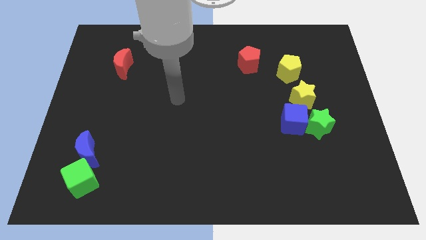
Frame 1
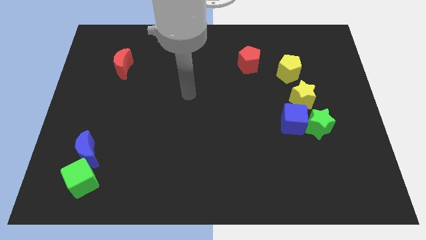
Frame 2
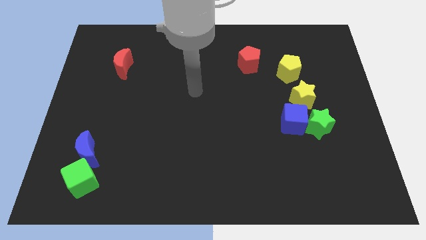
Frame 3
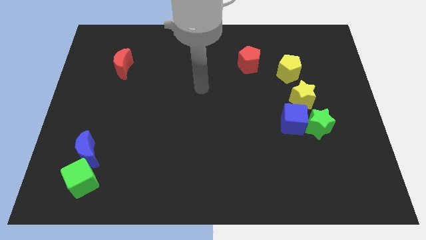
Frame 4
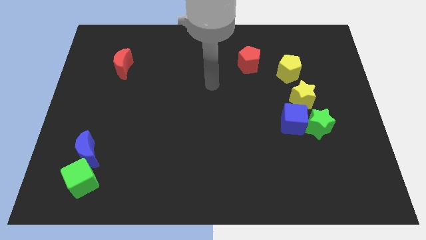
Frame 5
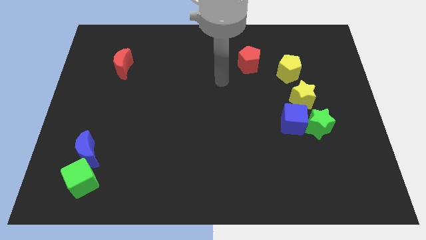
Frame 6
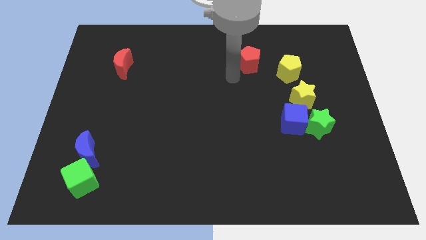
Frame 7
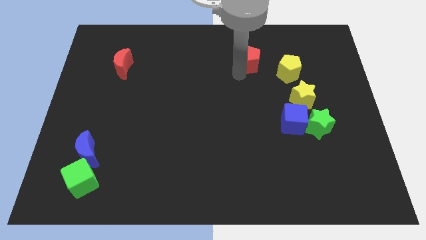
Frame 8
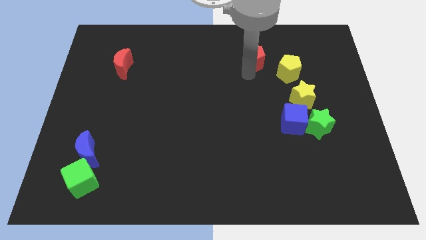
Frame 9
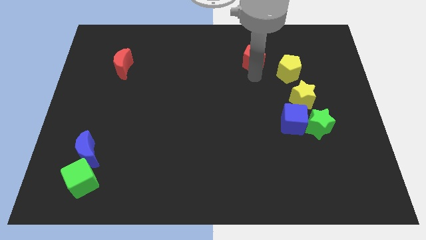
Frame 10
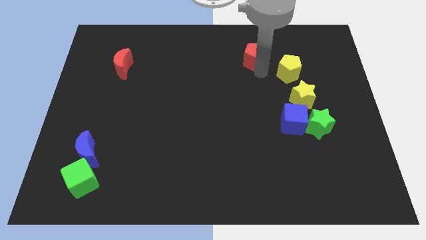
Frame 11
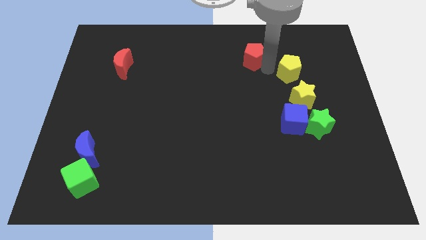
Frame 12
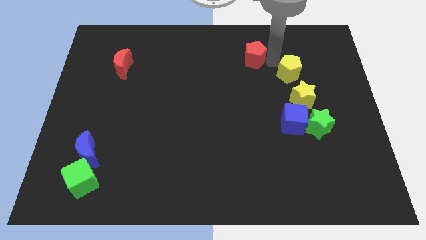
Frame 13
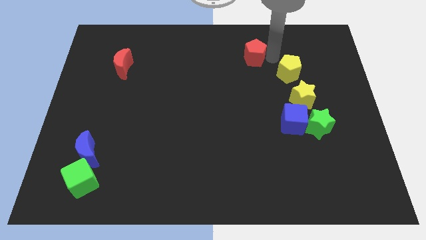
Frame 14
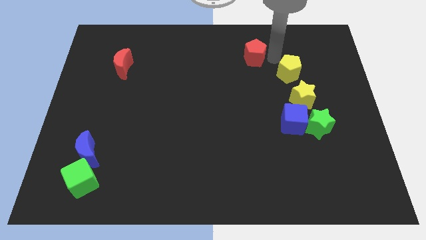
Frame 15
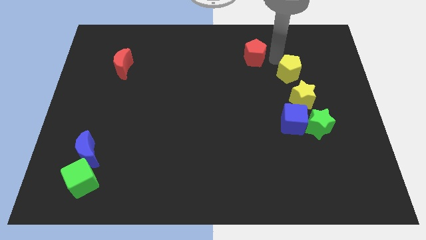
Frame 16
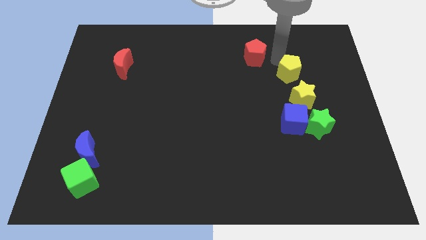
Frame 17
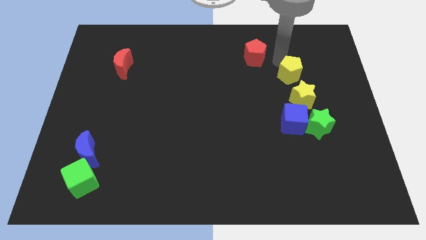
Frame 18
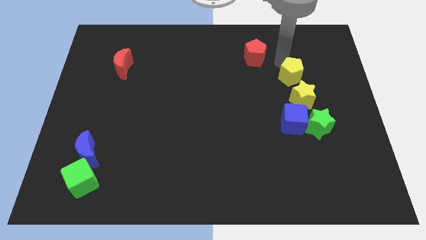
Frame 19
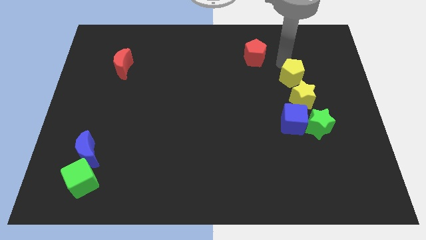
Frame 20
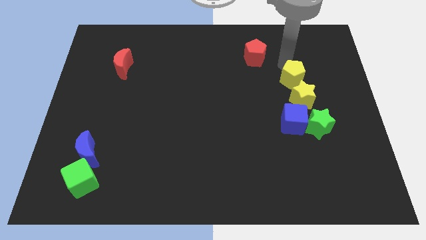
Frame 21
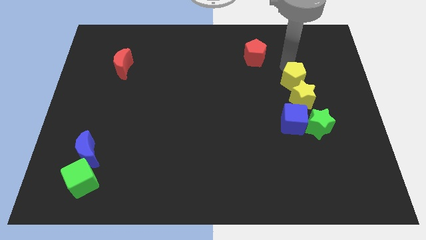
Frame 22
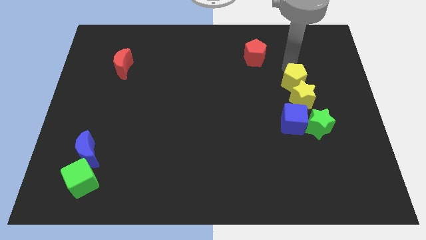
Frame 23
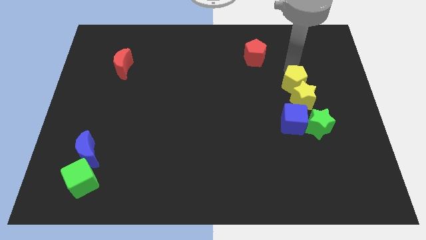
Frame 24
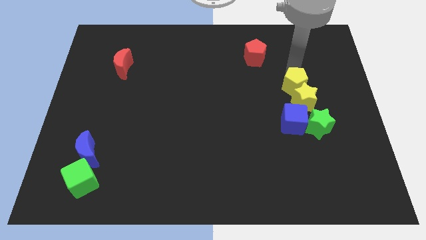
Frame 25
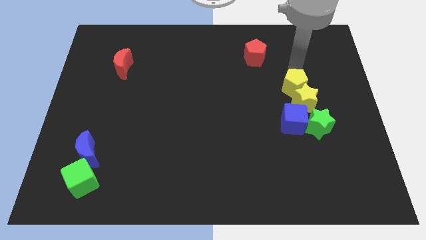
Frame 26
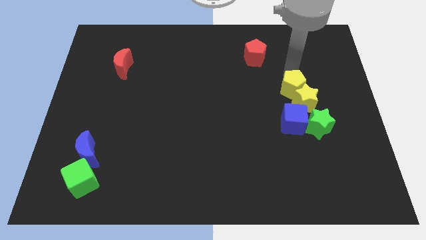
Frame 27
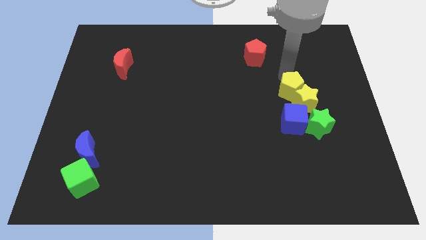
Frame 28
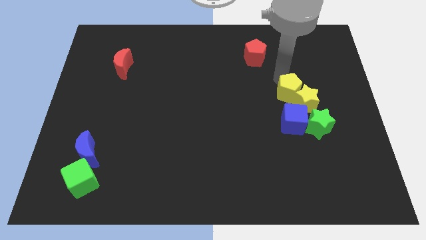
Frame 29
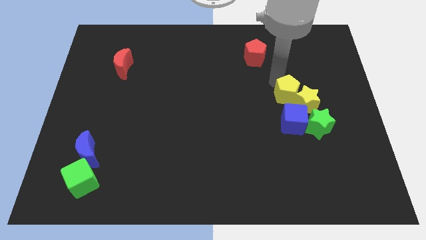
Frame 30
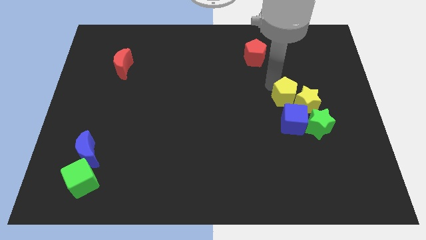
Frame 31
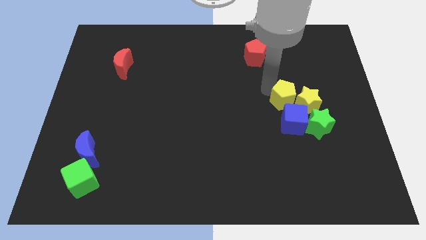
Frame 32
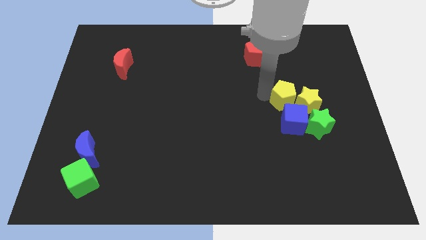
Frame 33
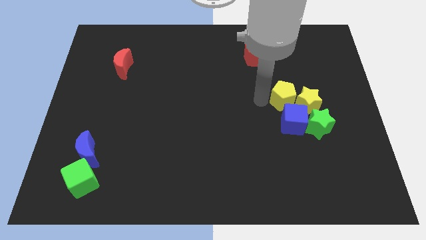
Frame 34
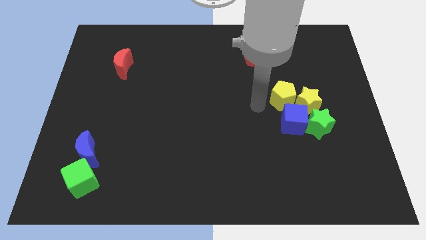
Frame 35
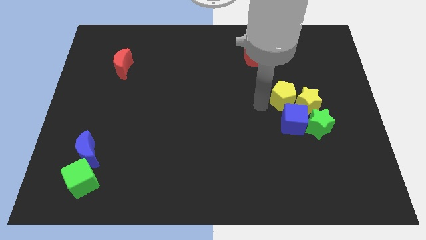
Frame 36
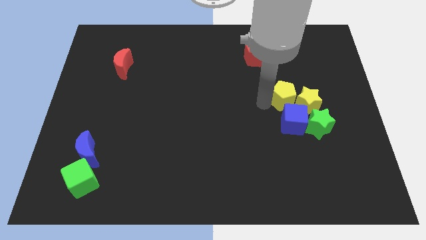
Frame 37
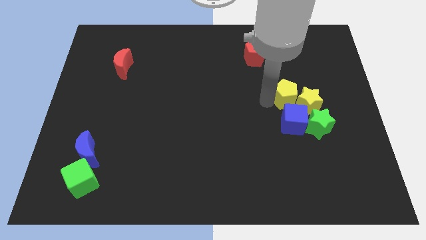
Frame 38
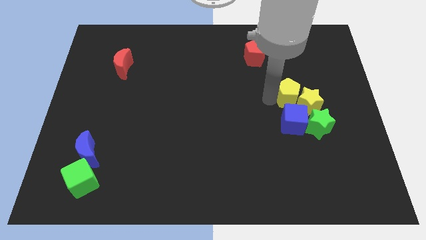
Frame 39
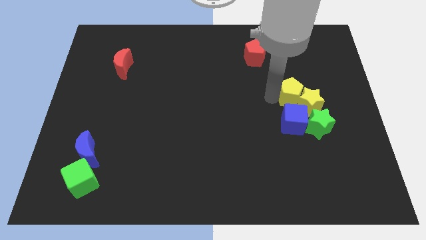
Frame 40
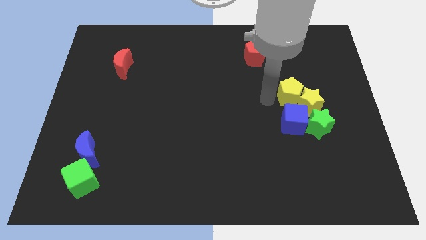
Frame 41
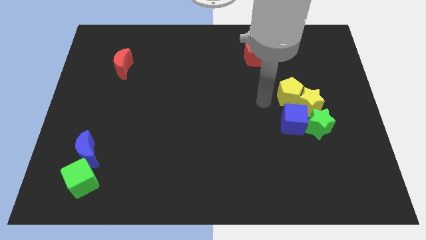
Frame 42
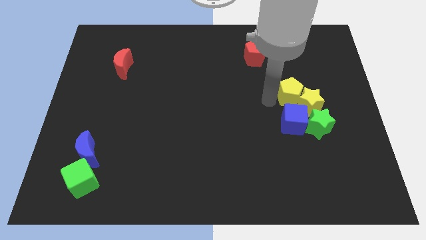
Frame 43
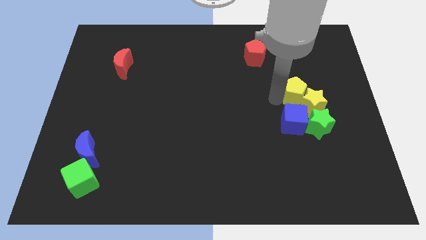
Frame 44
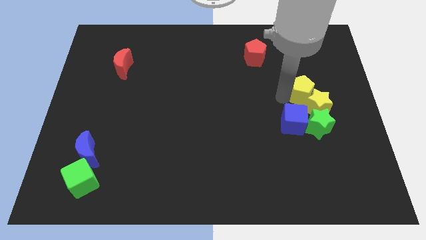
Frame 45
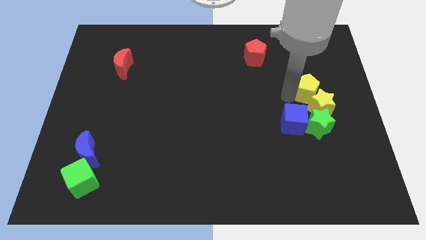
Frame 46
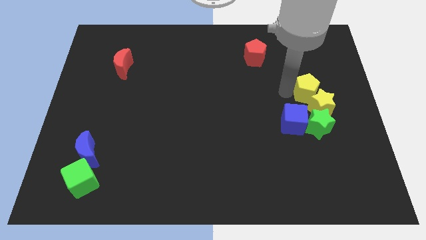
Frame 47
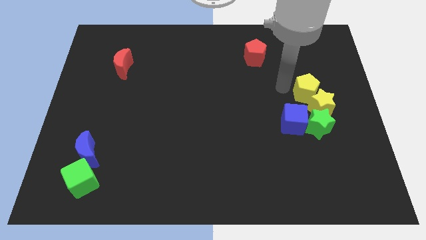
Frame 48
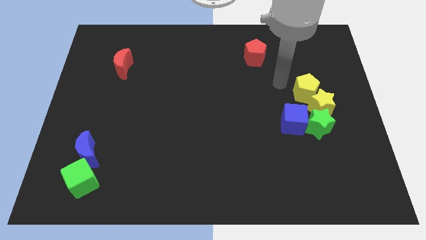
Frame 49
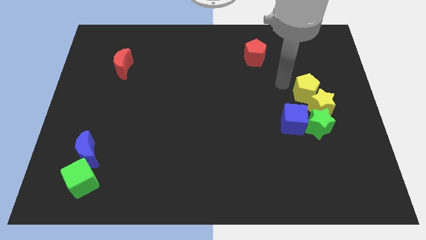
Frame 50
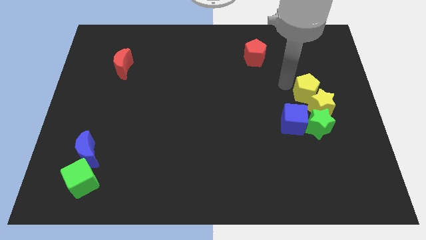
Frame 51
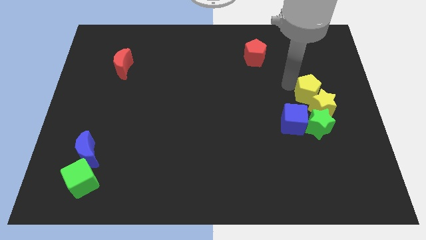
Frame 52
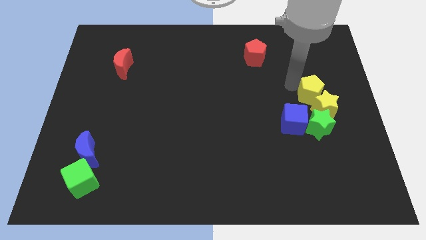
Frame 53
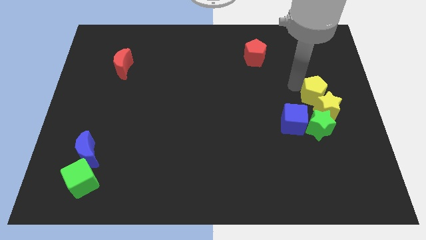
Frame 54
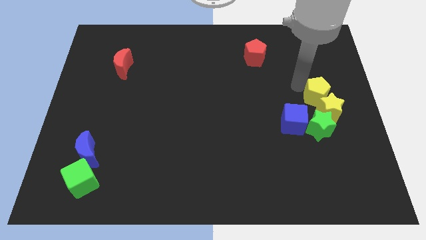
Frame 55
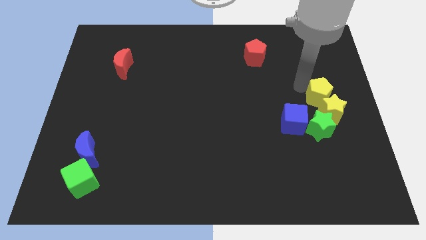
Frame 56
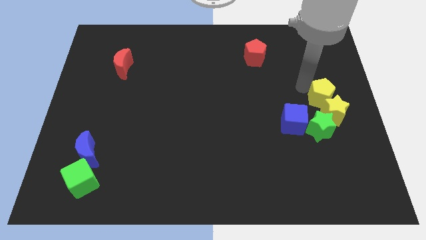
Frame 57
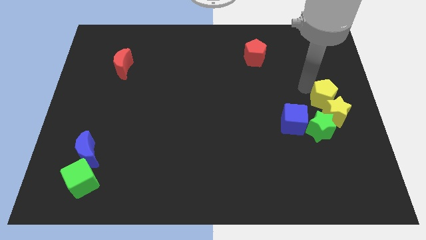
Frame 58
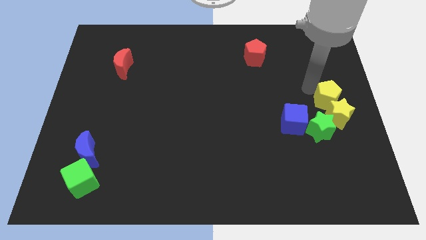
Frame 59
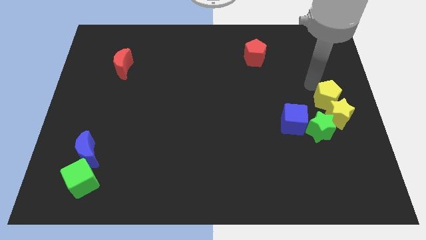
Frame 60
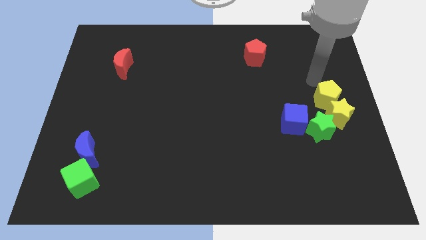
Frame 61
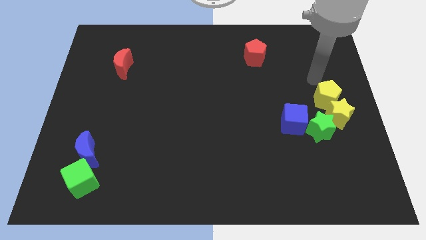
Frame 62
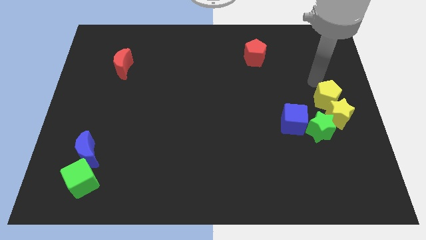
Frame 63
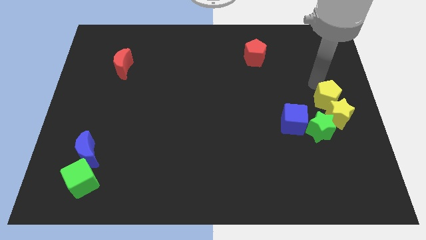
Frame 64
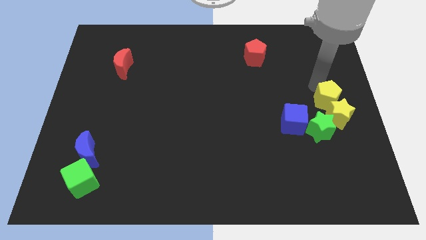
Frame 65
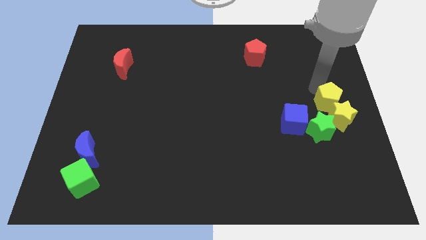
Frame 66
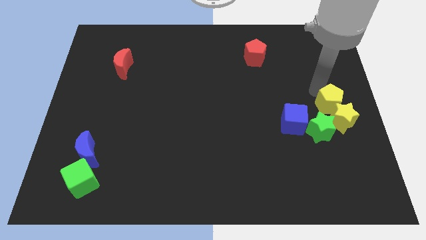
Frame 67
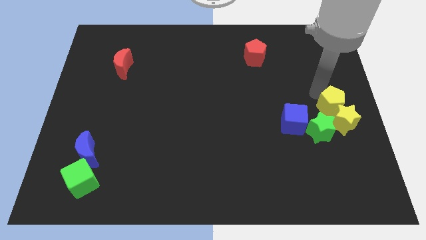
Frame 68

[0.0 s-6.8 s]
push the yellow pentagon right of the blue cube
